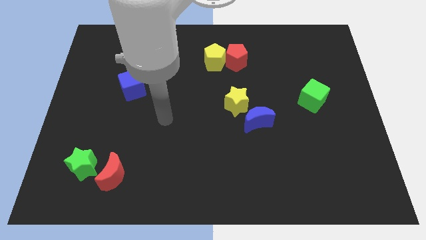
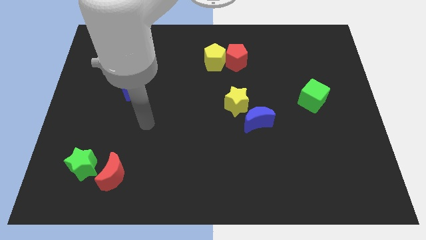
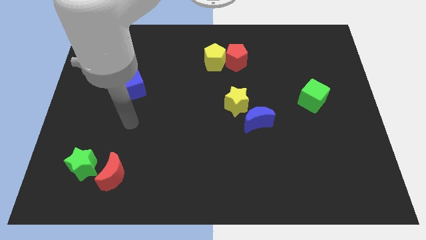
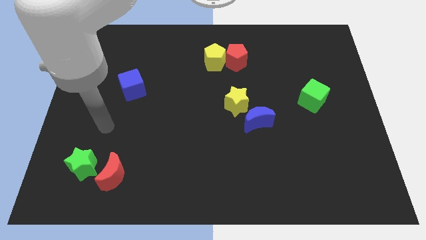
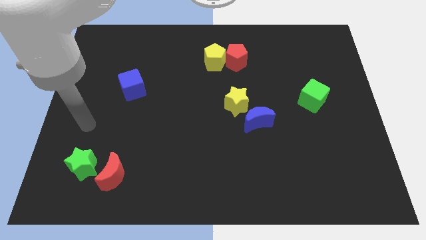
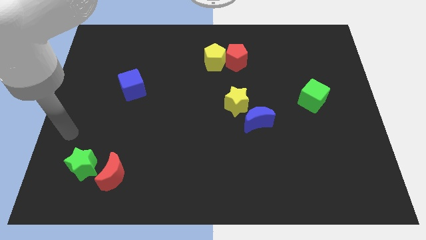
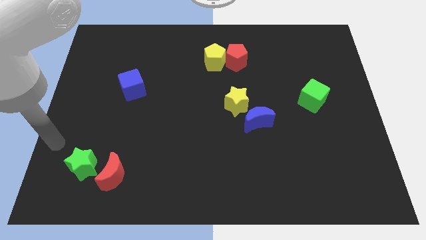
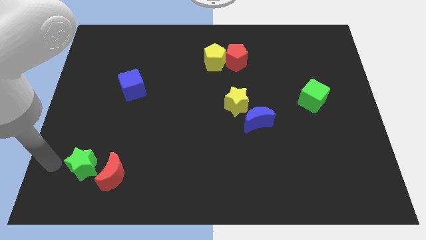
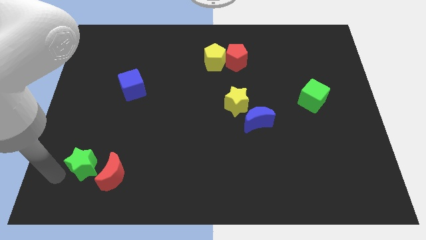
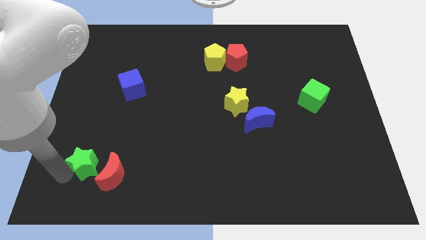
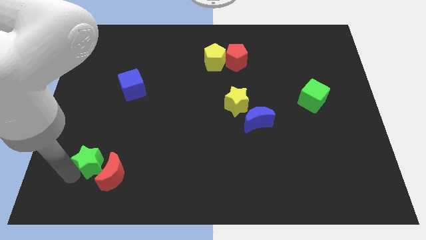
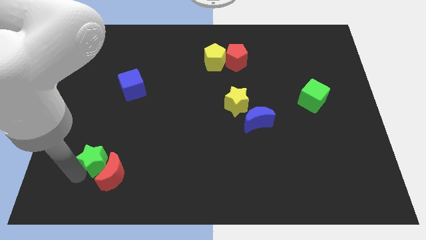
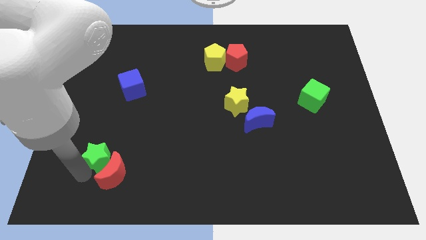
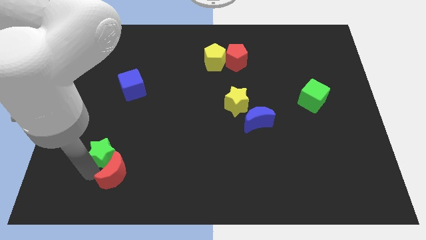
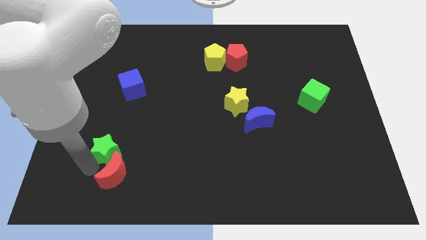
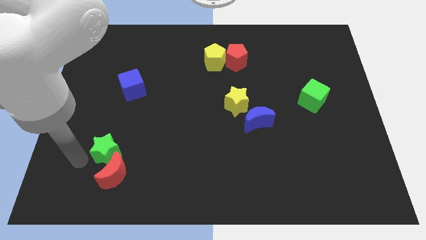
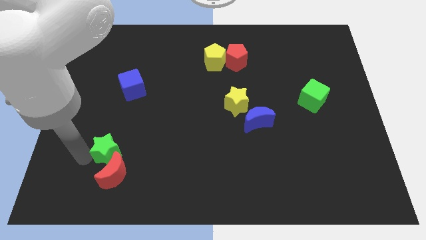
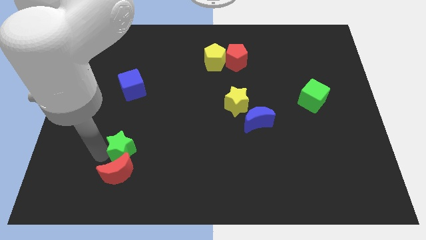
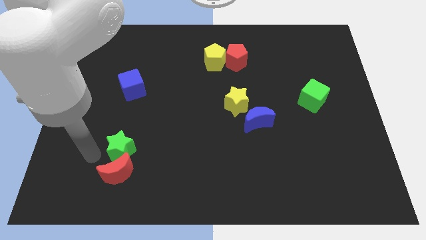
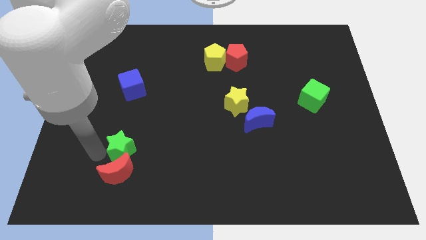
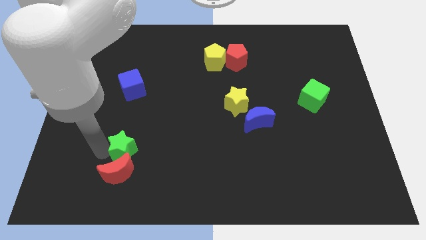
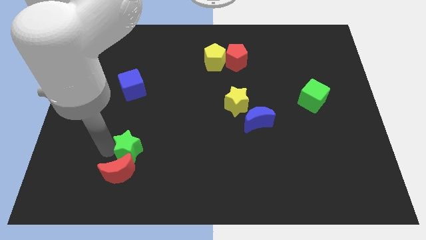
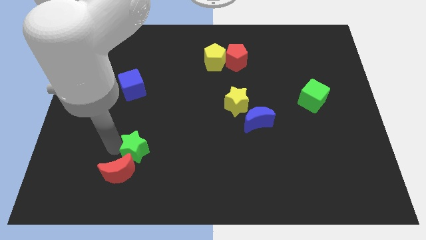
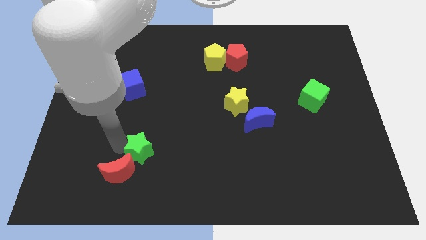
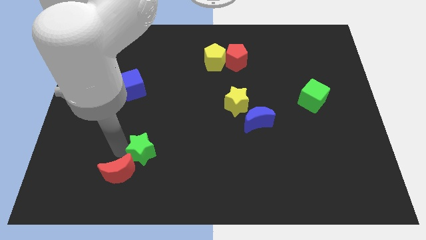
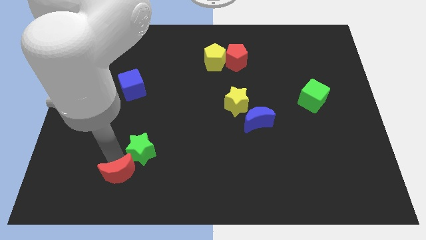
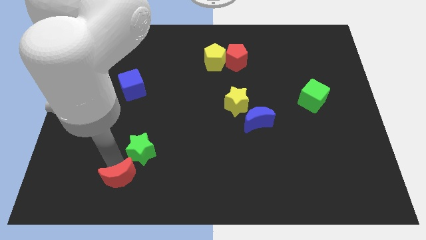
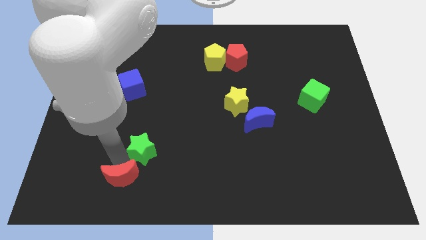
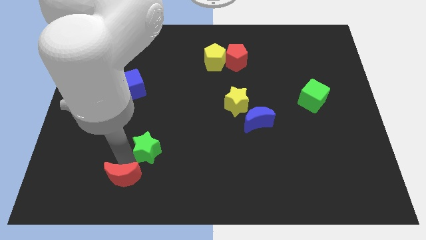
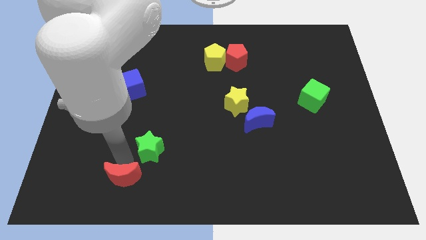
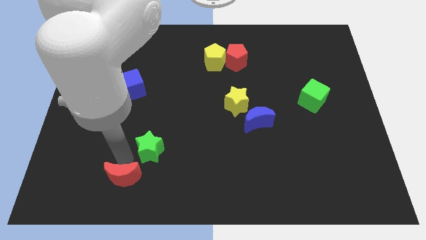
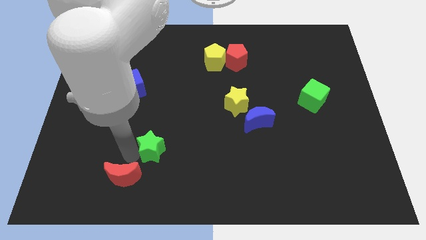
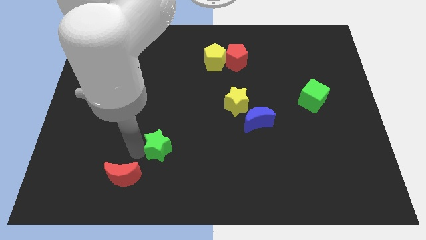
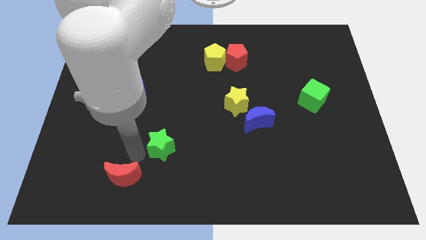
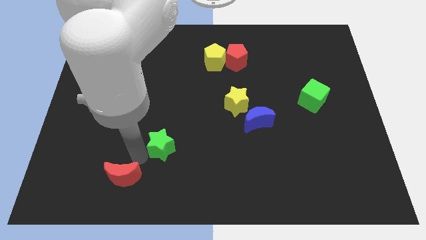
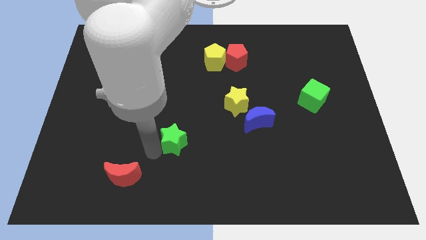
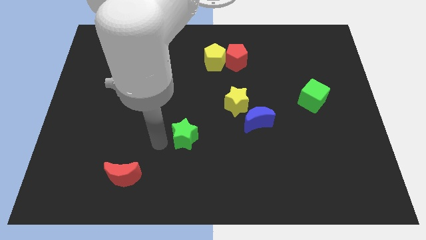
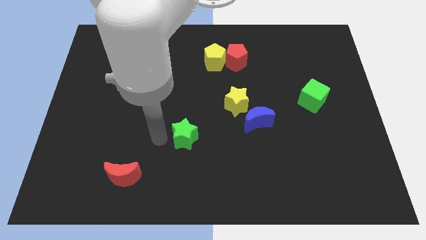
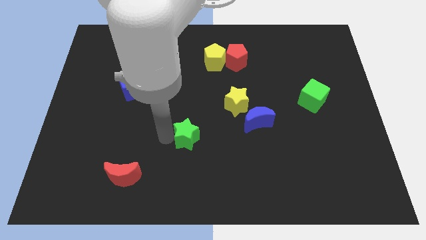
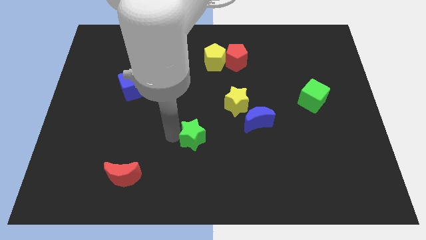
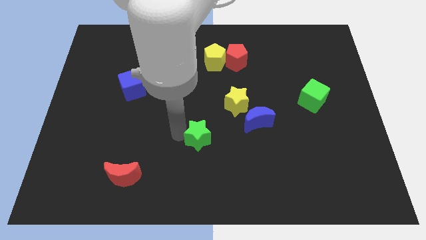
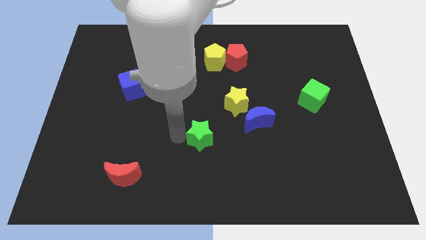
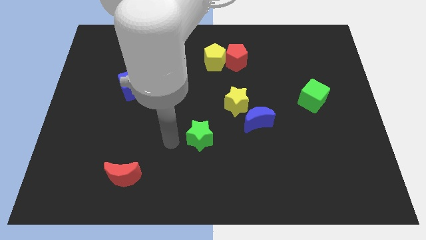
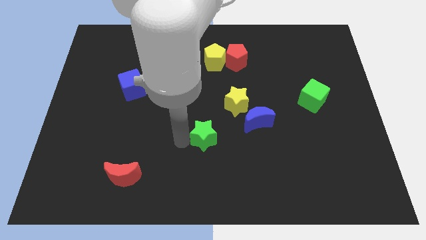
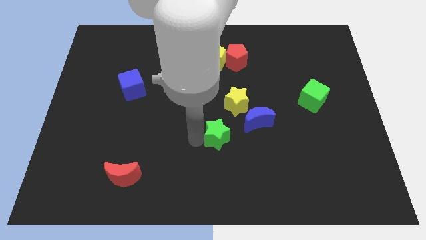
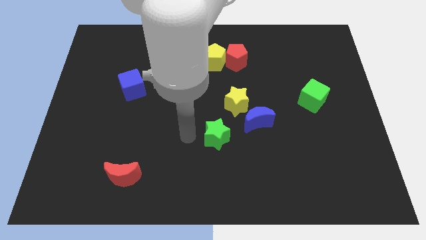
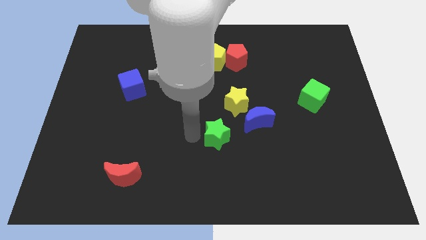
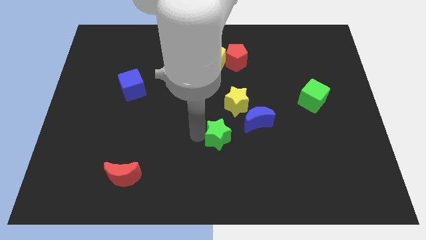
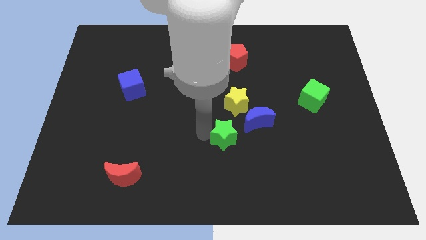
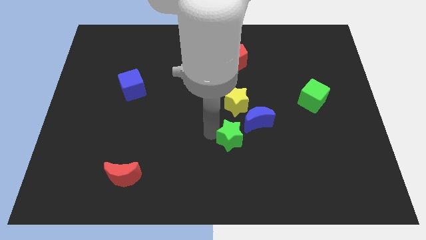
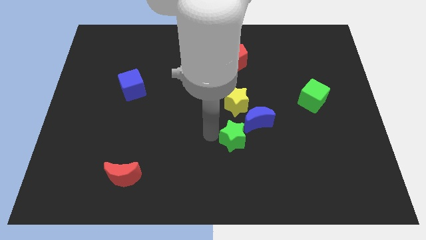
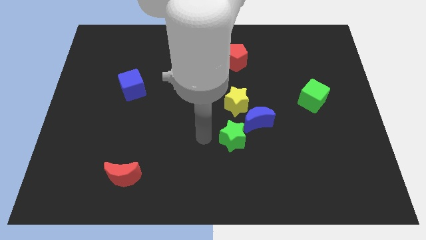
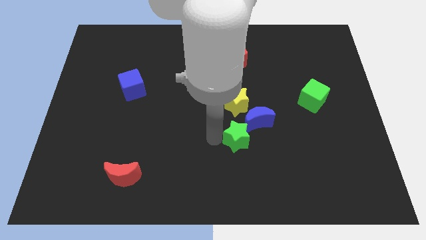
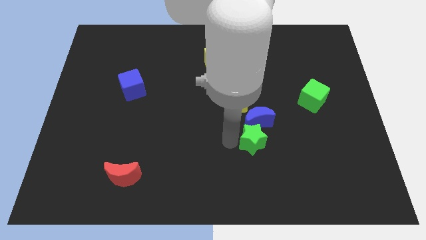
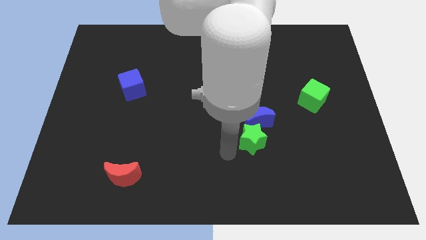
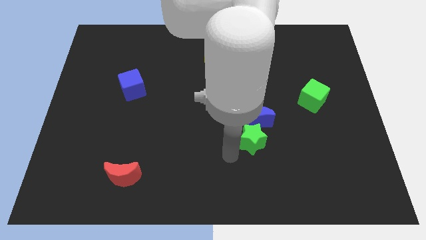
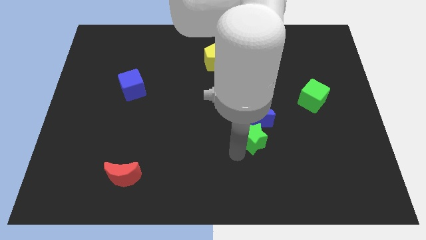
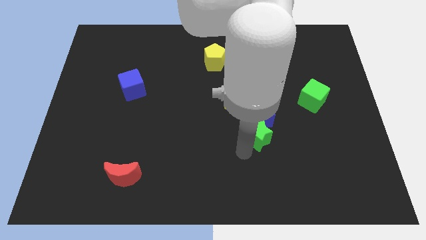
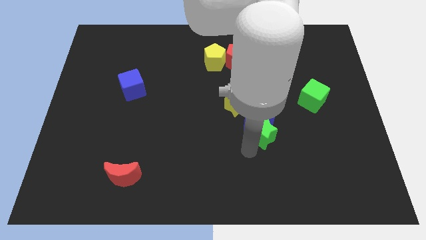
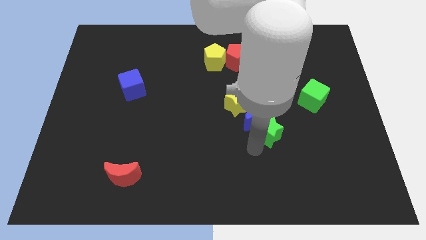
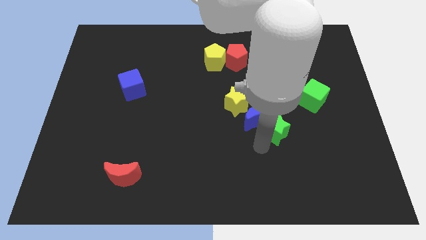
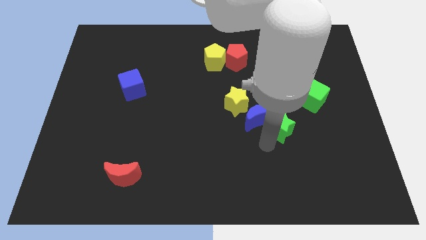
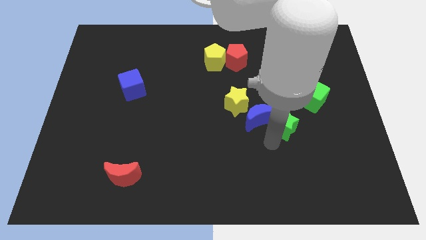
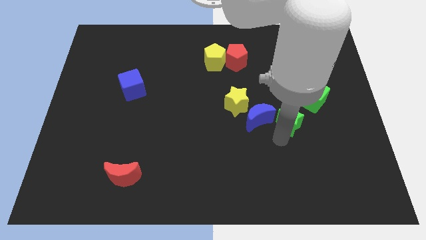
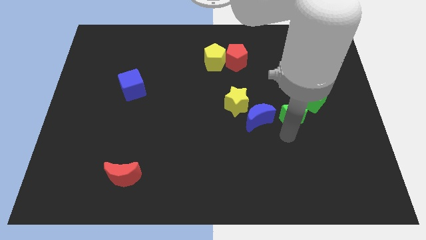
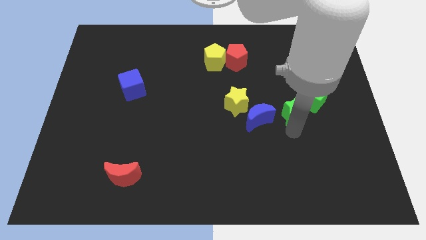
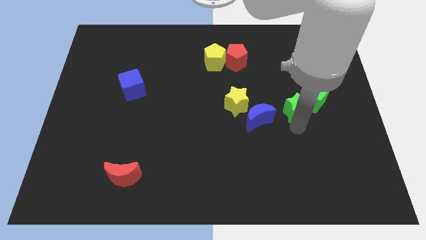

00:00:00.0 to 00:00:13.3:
slide the green star to the green cube
